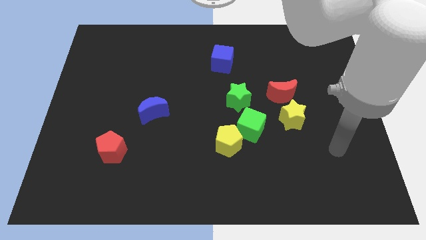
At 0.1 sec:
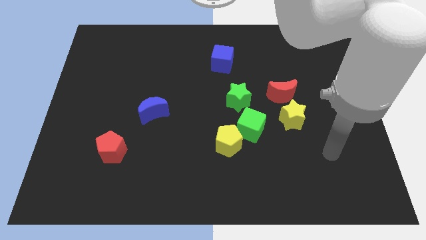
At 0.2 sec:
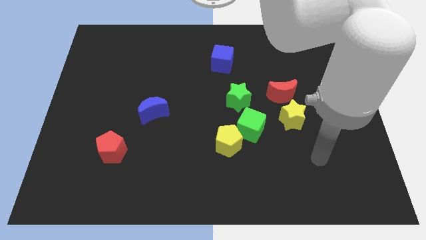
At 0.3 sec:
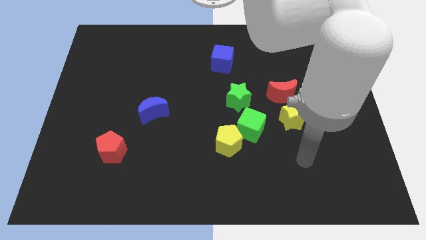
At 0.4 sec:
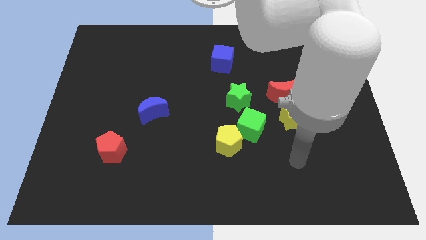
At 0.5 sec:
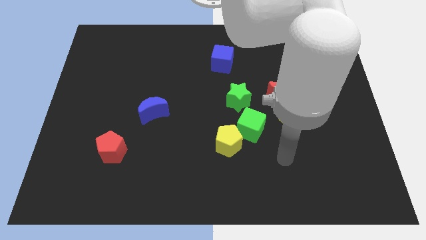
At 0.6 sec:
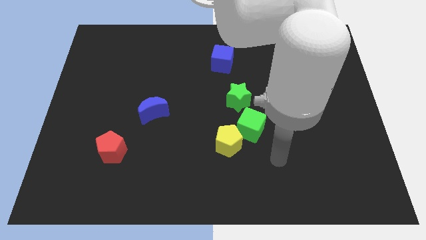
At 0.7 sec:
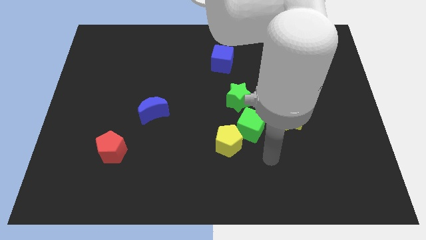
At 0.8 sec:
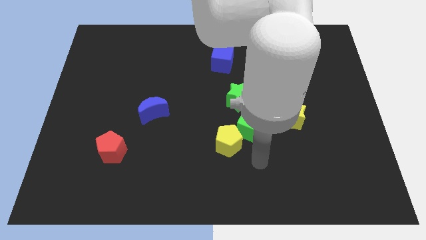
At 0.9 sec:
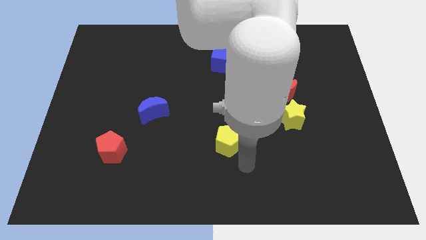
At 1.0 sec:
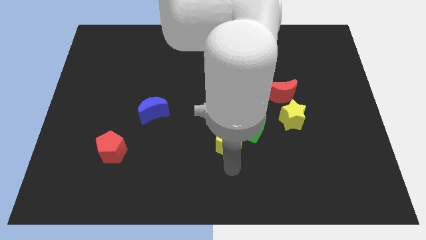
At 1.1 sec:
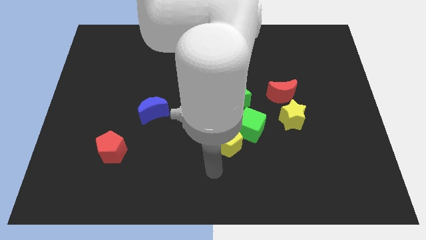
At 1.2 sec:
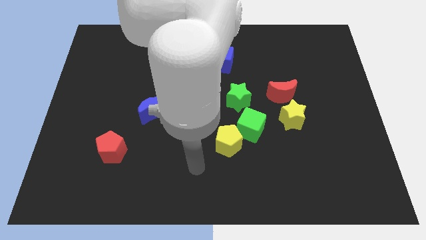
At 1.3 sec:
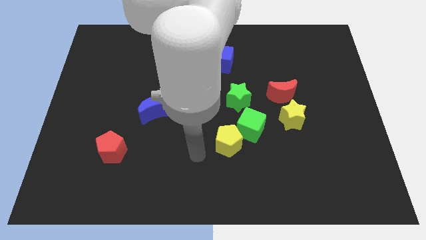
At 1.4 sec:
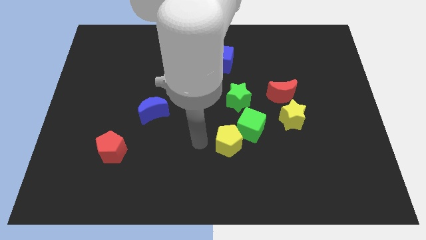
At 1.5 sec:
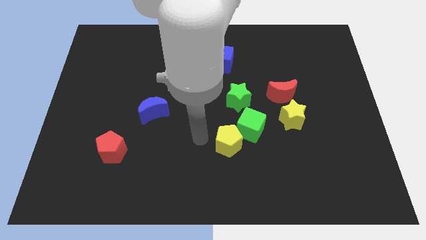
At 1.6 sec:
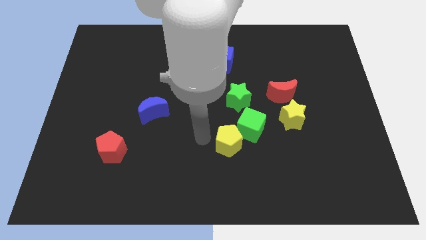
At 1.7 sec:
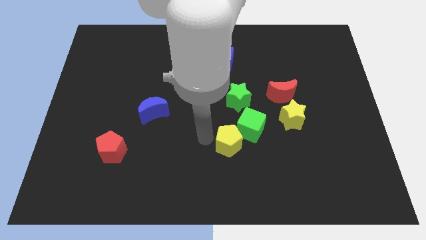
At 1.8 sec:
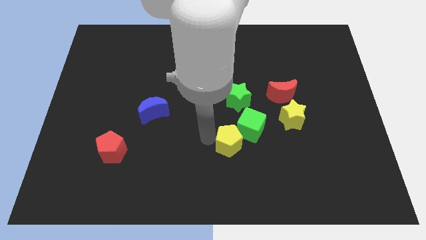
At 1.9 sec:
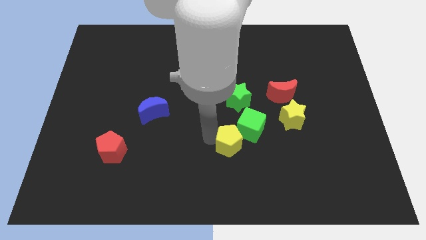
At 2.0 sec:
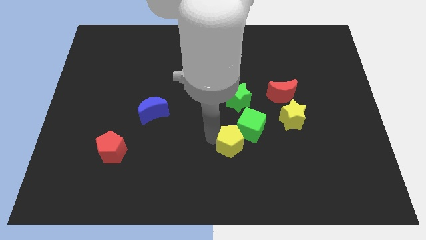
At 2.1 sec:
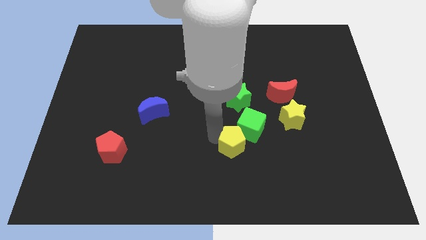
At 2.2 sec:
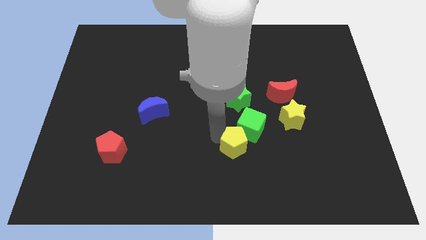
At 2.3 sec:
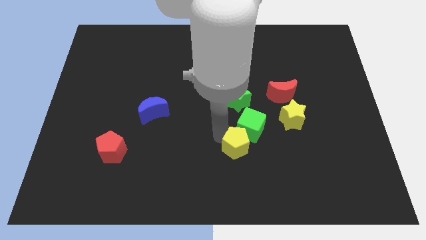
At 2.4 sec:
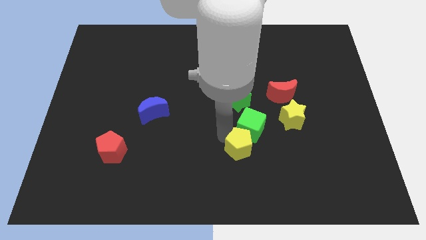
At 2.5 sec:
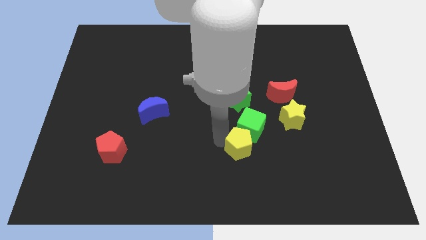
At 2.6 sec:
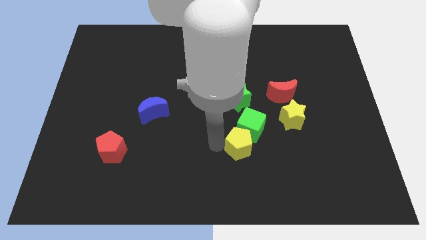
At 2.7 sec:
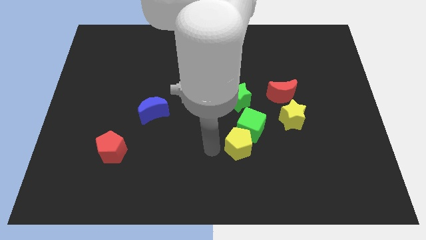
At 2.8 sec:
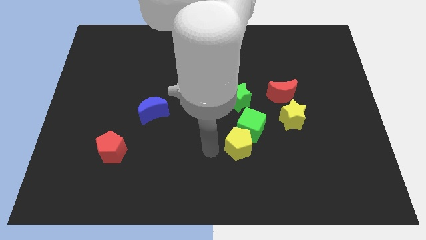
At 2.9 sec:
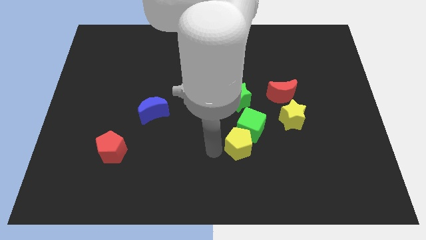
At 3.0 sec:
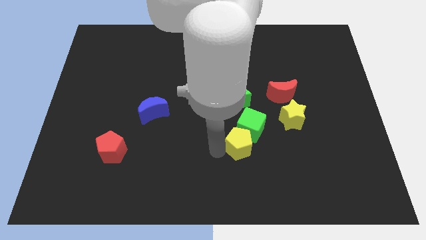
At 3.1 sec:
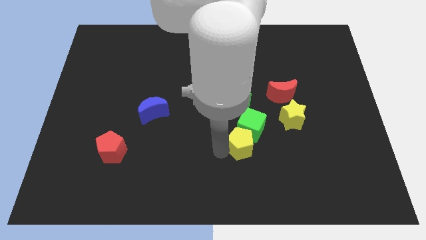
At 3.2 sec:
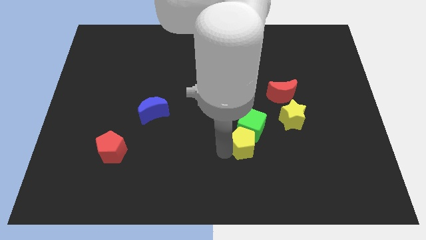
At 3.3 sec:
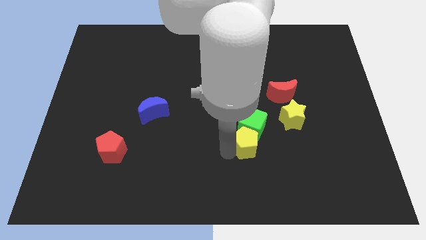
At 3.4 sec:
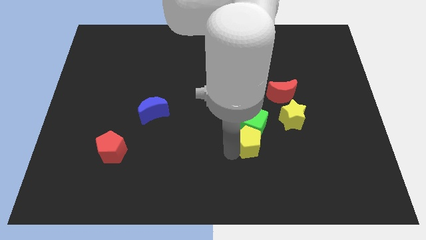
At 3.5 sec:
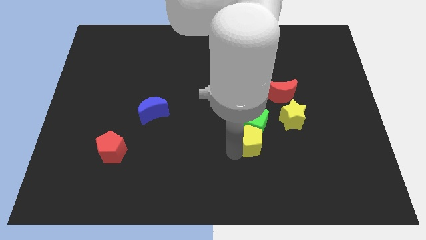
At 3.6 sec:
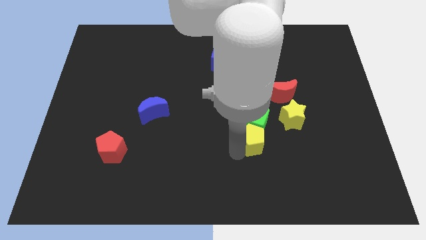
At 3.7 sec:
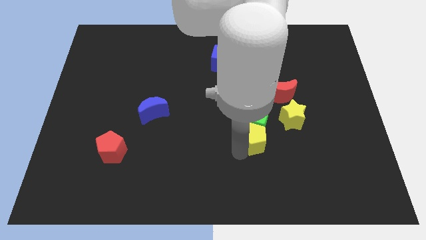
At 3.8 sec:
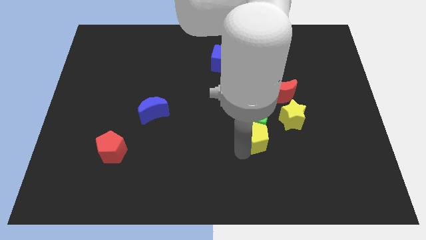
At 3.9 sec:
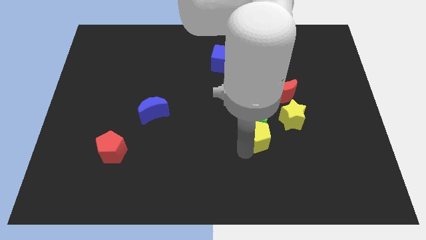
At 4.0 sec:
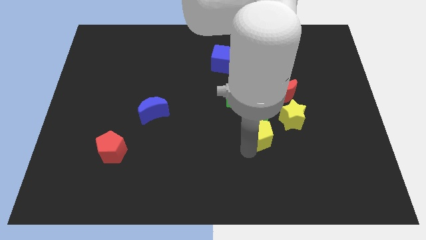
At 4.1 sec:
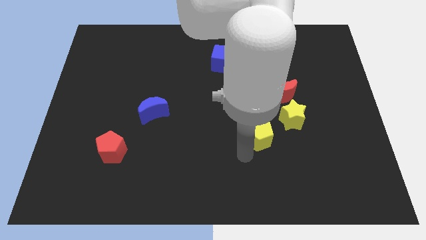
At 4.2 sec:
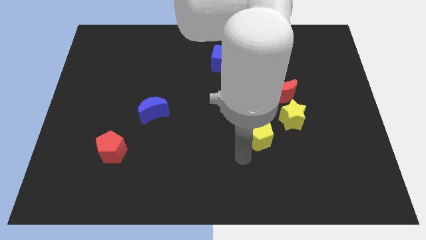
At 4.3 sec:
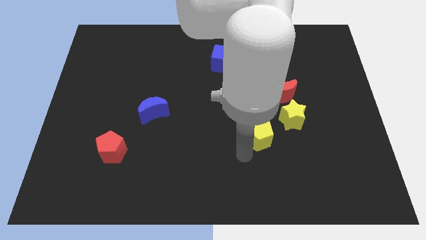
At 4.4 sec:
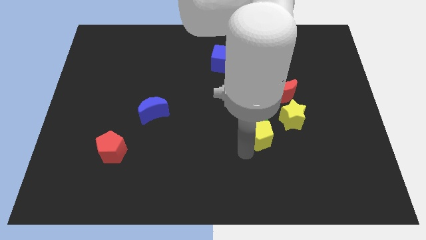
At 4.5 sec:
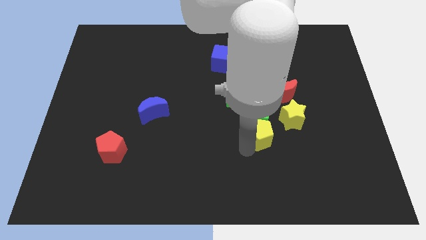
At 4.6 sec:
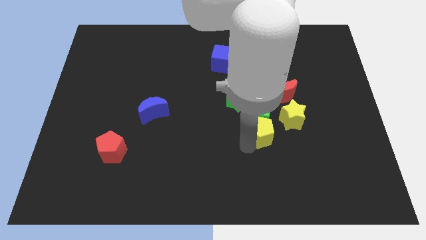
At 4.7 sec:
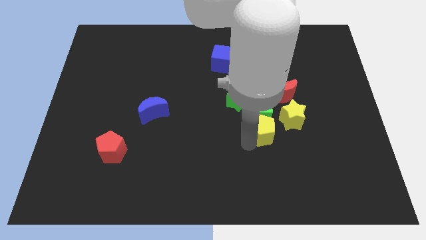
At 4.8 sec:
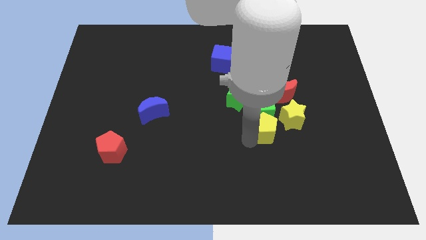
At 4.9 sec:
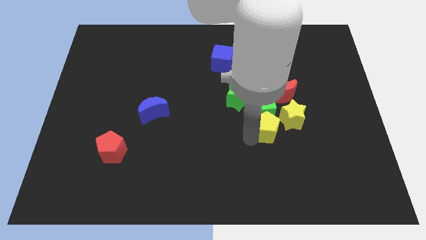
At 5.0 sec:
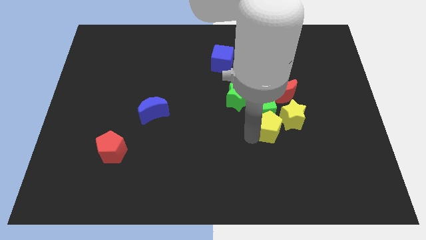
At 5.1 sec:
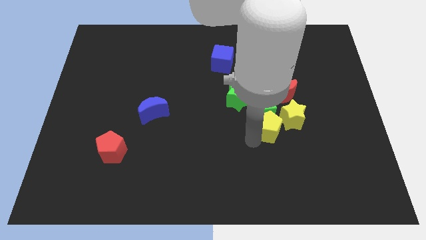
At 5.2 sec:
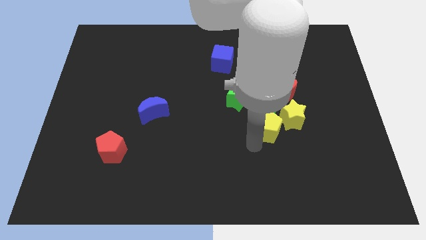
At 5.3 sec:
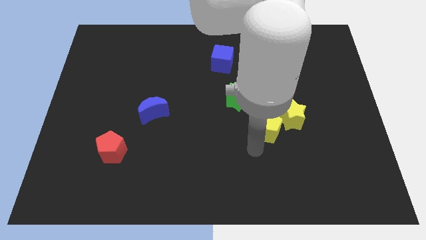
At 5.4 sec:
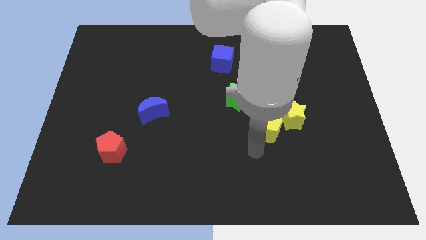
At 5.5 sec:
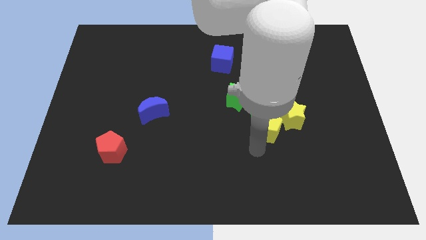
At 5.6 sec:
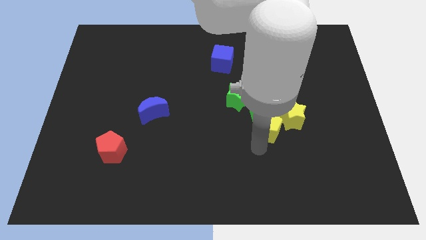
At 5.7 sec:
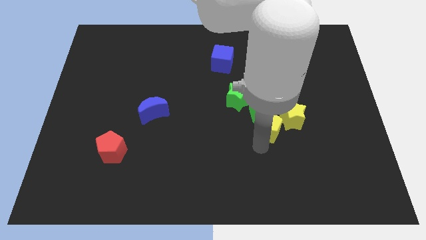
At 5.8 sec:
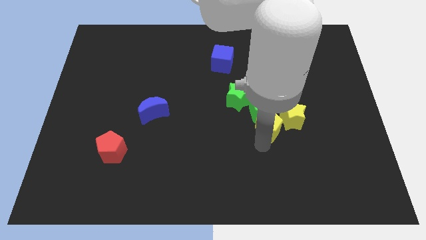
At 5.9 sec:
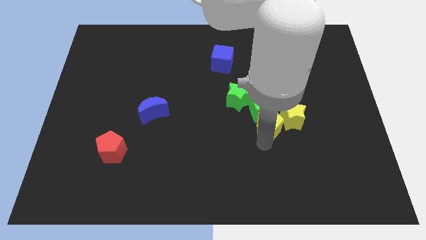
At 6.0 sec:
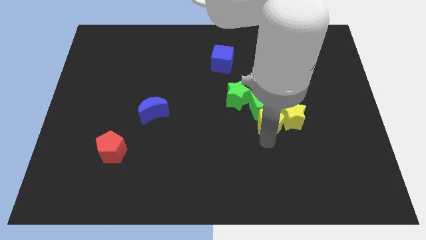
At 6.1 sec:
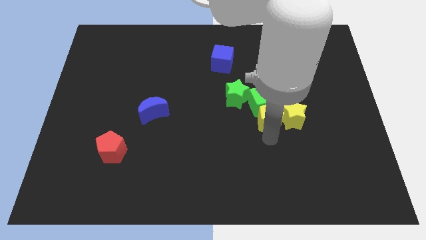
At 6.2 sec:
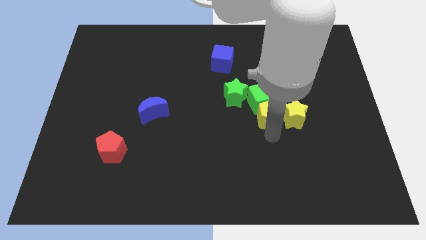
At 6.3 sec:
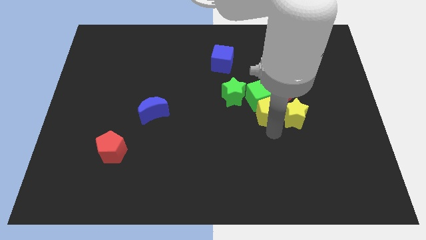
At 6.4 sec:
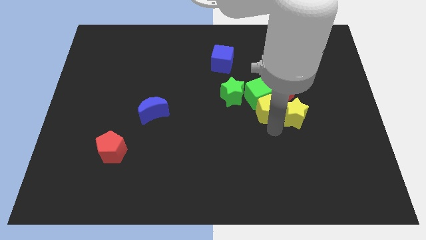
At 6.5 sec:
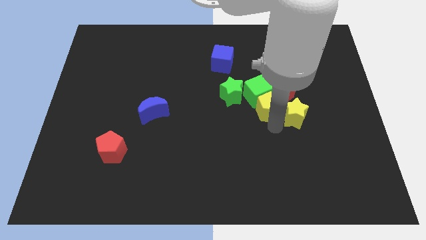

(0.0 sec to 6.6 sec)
push the yellow pentagon to the red moon
